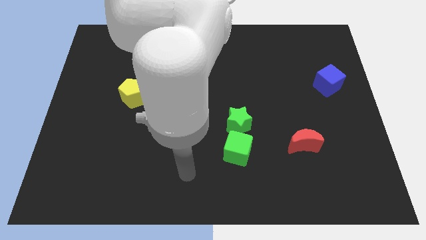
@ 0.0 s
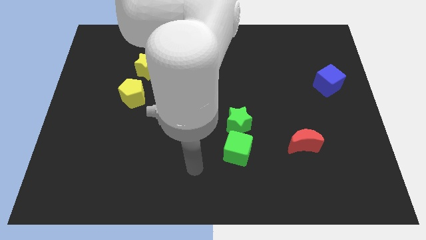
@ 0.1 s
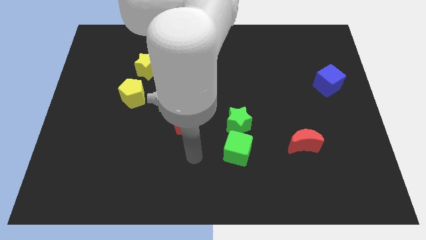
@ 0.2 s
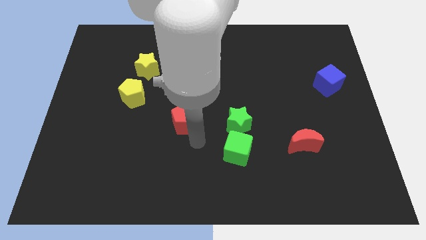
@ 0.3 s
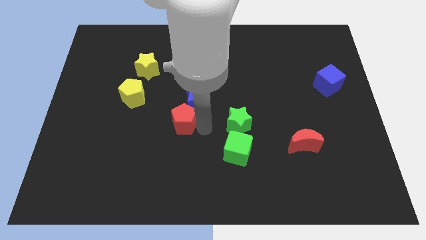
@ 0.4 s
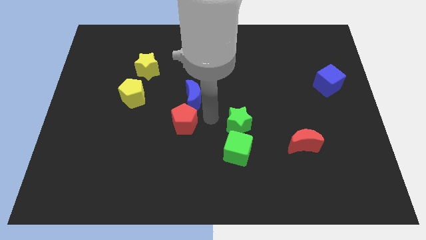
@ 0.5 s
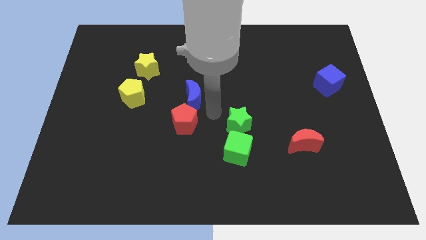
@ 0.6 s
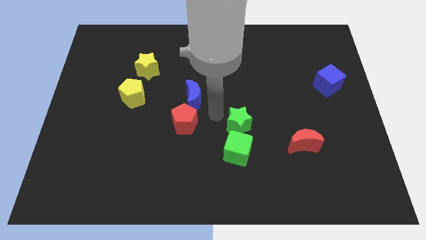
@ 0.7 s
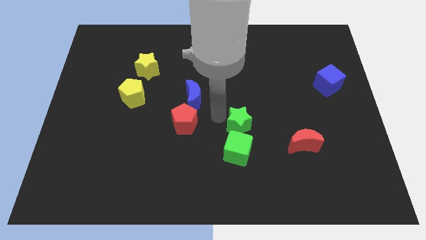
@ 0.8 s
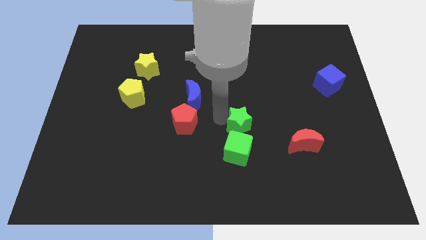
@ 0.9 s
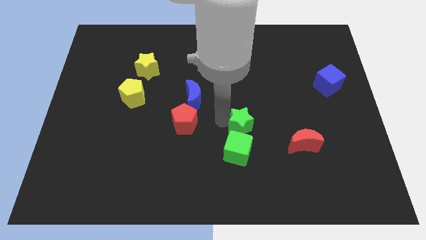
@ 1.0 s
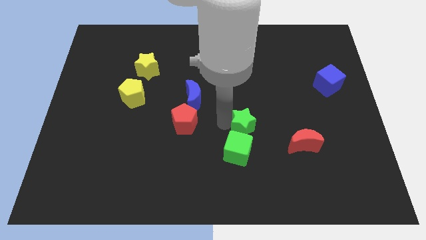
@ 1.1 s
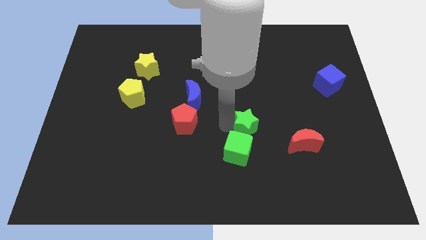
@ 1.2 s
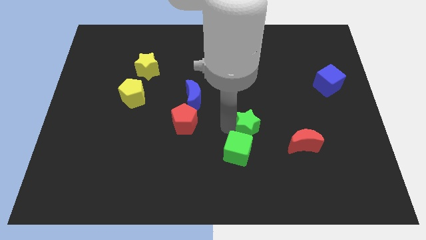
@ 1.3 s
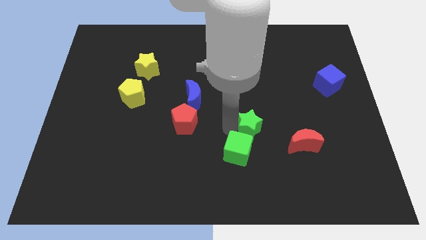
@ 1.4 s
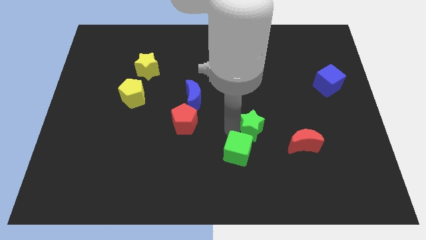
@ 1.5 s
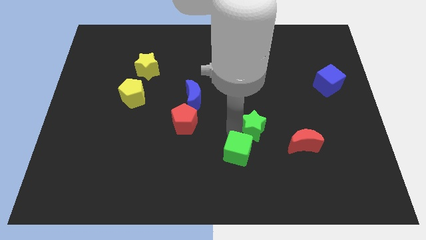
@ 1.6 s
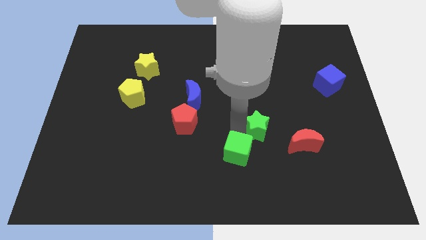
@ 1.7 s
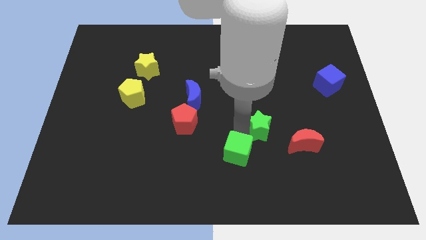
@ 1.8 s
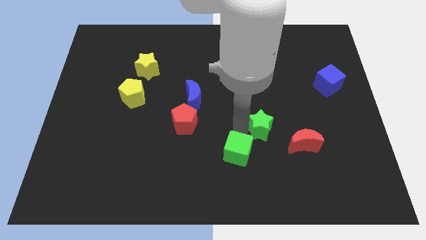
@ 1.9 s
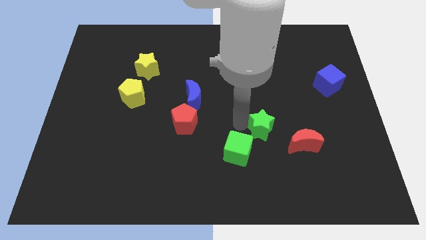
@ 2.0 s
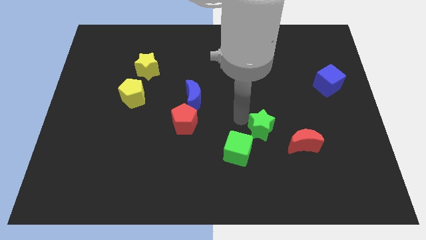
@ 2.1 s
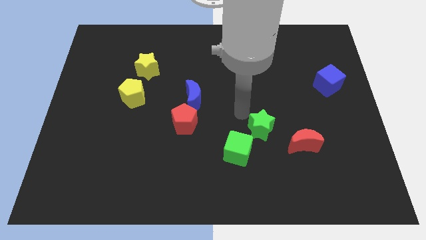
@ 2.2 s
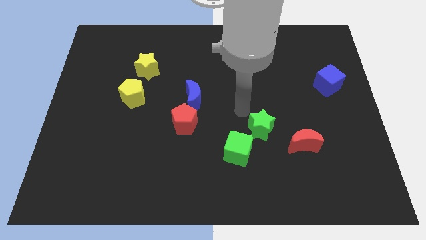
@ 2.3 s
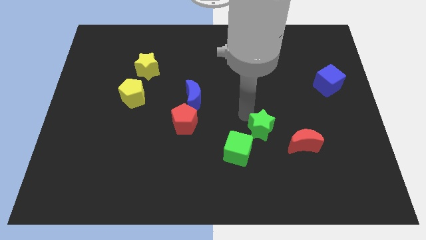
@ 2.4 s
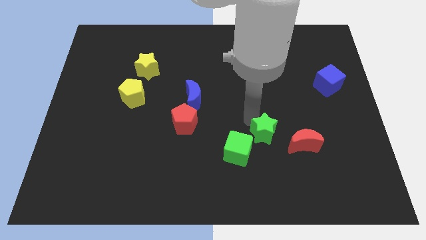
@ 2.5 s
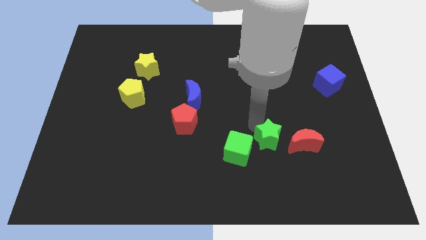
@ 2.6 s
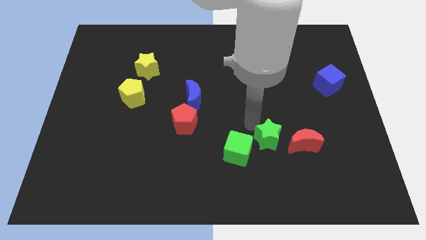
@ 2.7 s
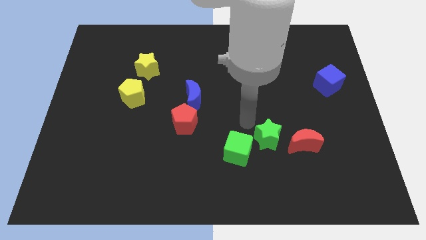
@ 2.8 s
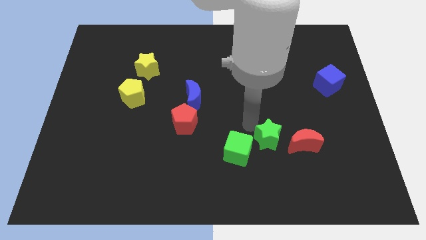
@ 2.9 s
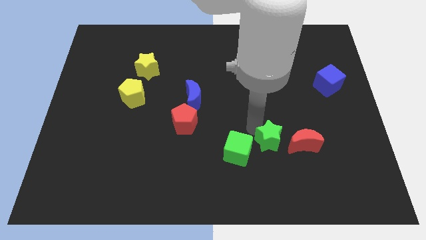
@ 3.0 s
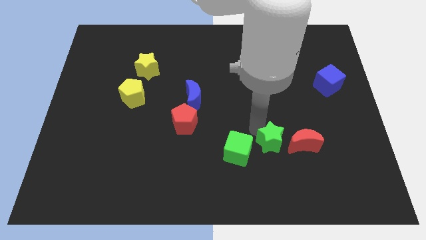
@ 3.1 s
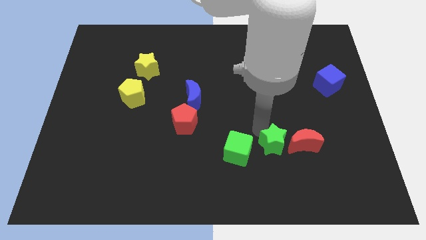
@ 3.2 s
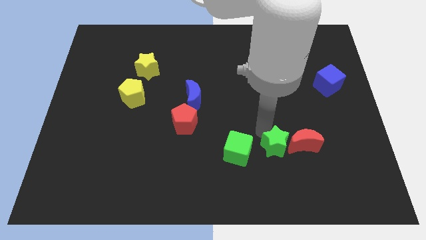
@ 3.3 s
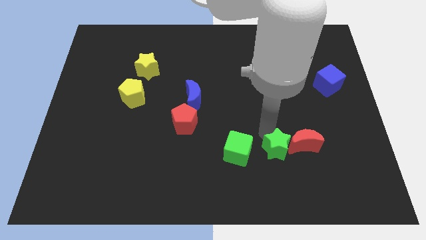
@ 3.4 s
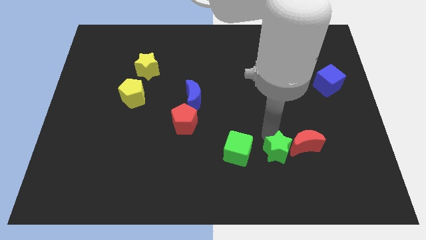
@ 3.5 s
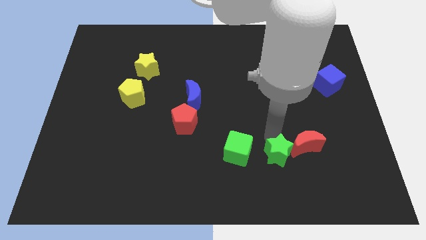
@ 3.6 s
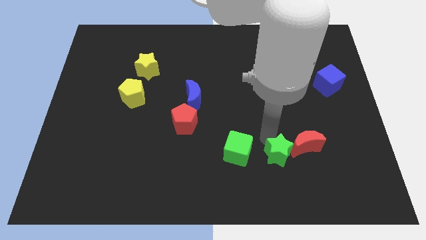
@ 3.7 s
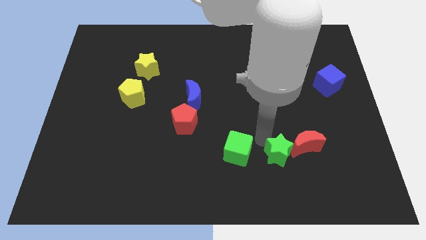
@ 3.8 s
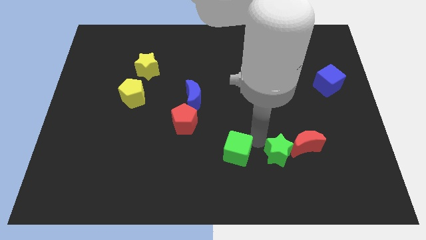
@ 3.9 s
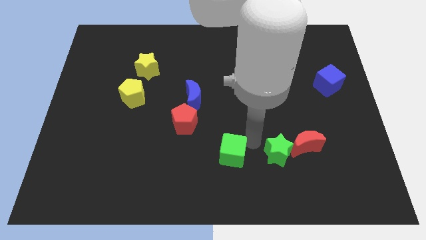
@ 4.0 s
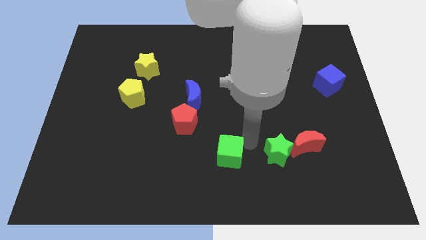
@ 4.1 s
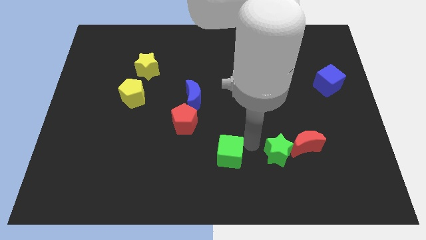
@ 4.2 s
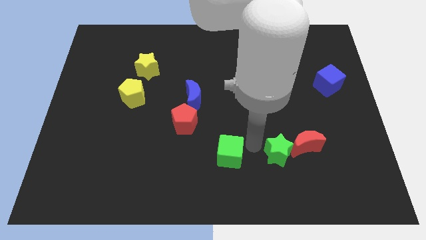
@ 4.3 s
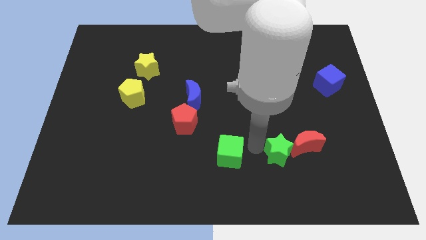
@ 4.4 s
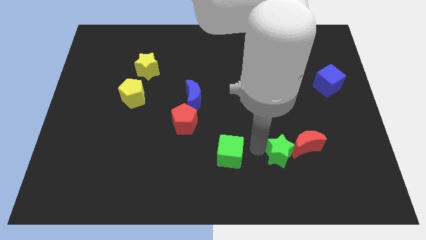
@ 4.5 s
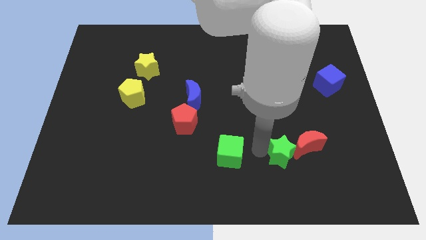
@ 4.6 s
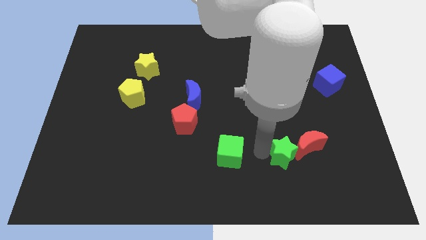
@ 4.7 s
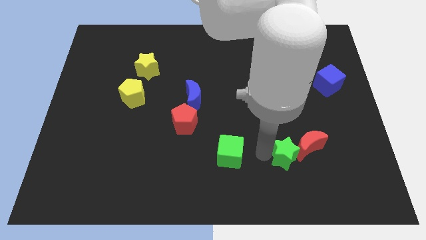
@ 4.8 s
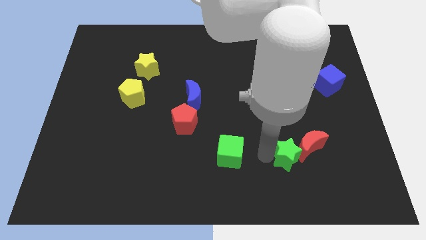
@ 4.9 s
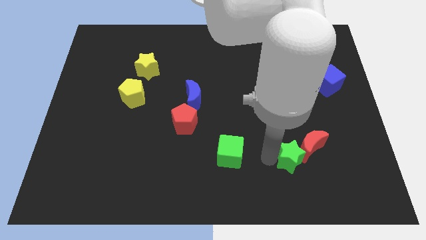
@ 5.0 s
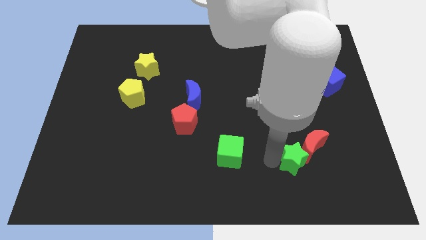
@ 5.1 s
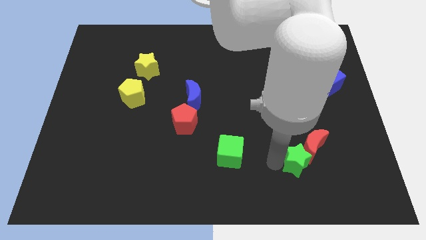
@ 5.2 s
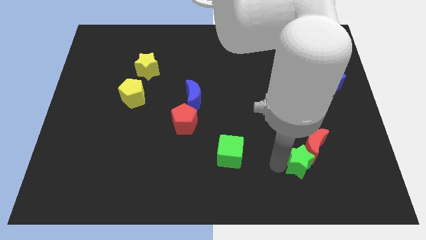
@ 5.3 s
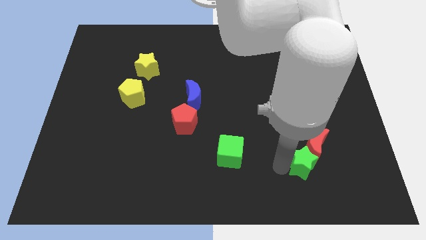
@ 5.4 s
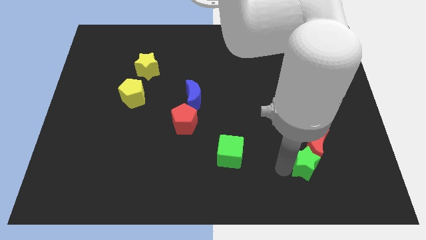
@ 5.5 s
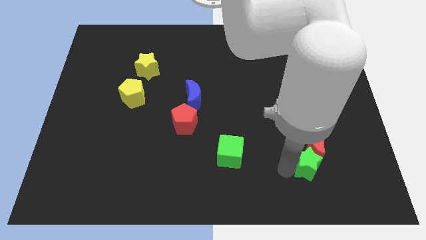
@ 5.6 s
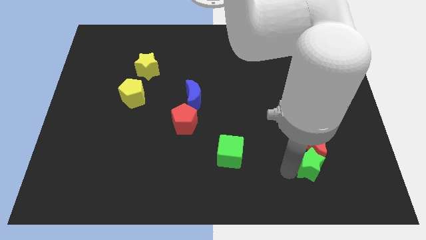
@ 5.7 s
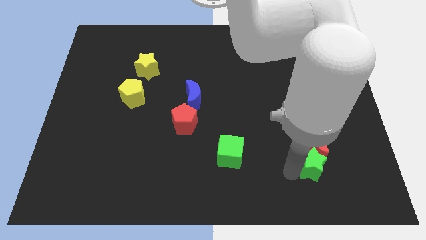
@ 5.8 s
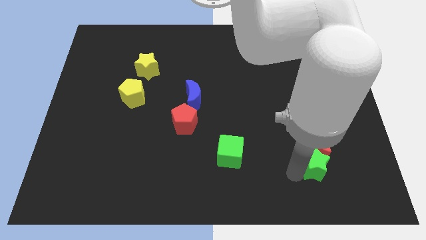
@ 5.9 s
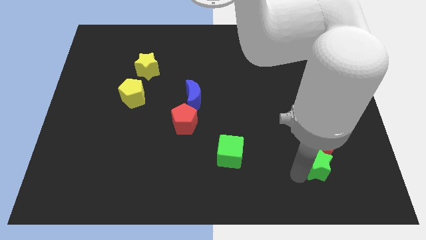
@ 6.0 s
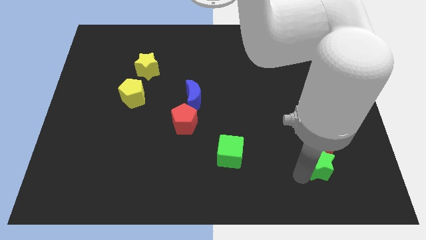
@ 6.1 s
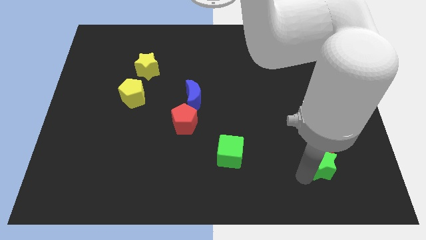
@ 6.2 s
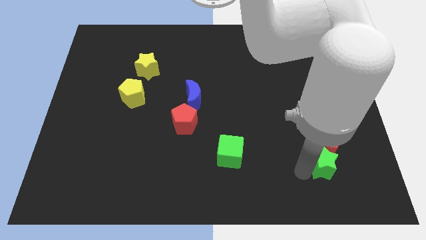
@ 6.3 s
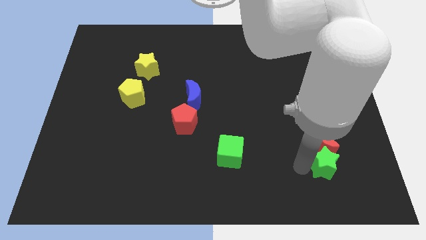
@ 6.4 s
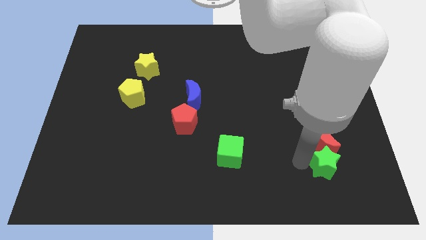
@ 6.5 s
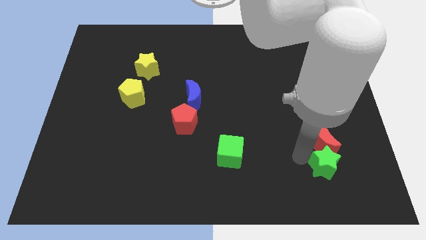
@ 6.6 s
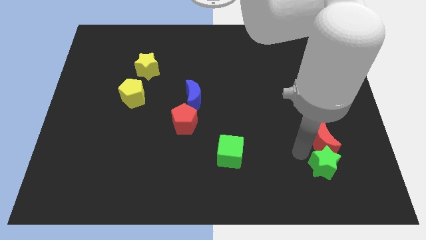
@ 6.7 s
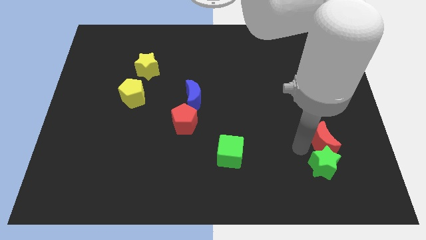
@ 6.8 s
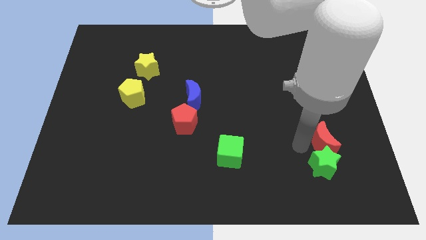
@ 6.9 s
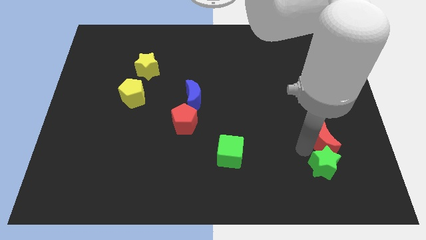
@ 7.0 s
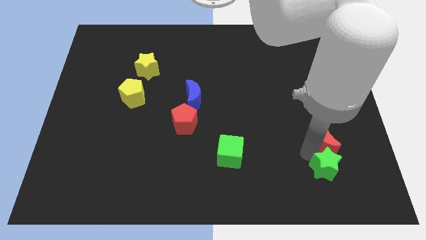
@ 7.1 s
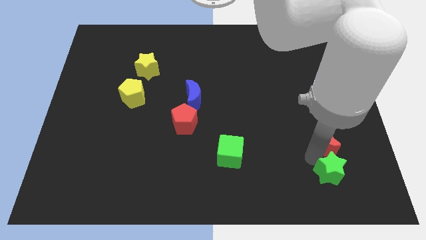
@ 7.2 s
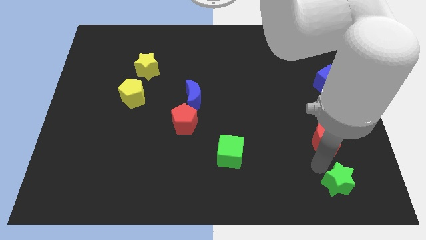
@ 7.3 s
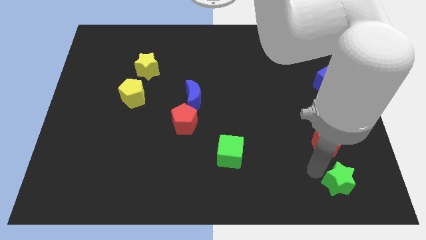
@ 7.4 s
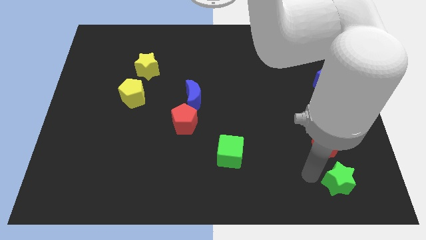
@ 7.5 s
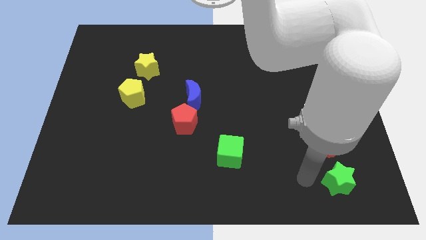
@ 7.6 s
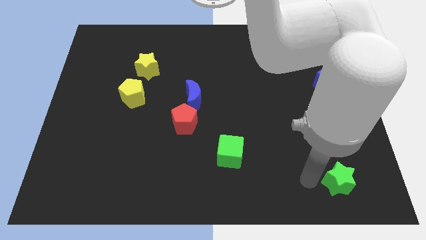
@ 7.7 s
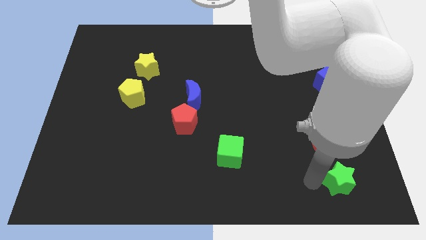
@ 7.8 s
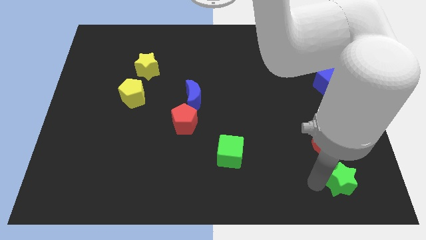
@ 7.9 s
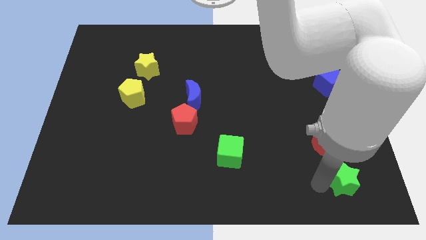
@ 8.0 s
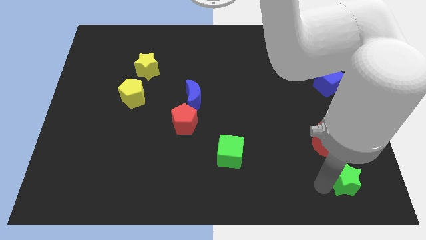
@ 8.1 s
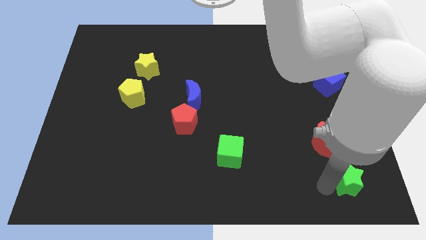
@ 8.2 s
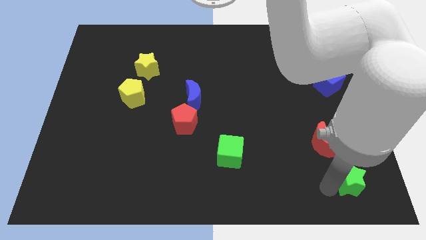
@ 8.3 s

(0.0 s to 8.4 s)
push the green star to the bottom right
